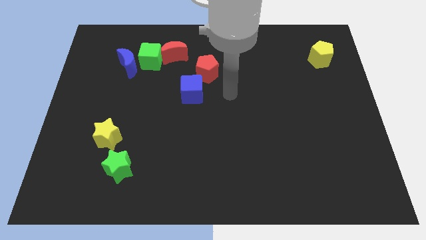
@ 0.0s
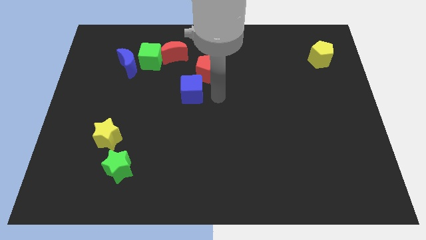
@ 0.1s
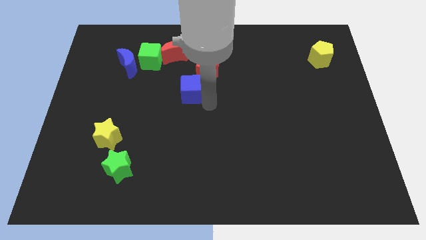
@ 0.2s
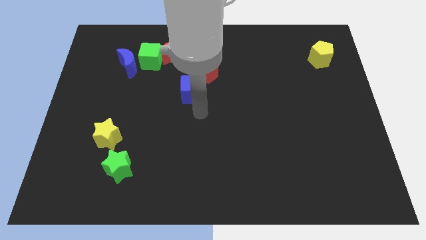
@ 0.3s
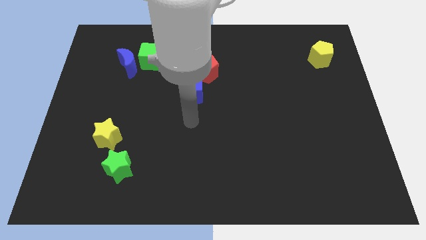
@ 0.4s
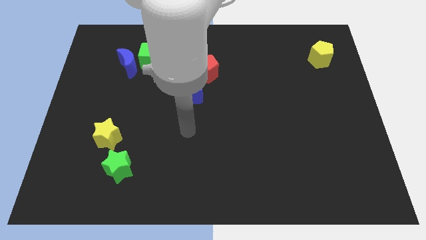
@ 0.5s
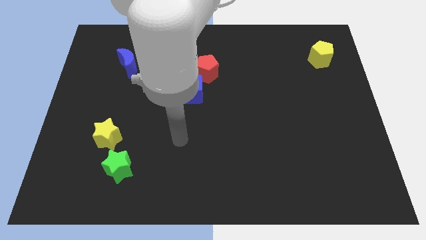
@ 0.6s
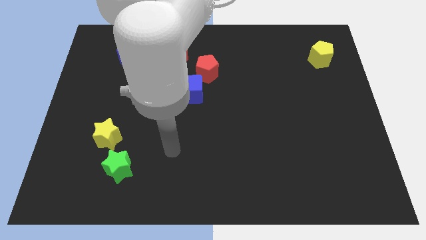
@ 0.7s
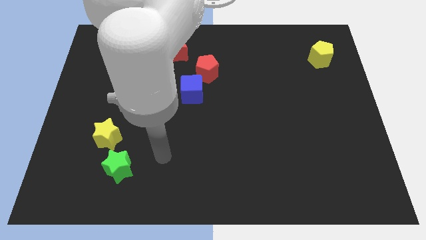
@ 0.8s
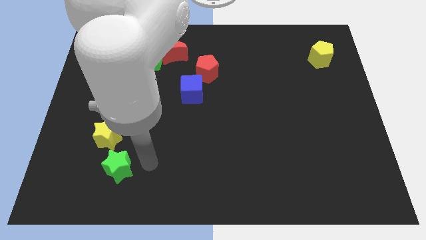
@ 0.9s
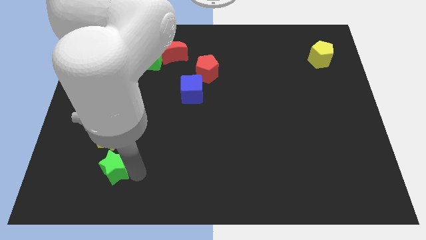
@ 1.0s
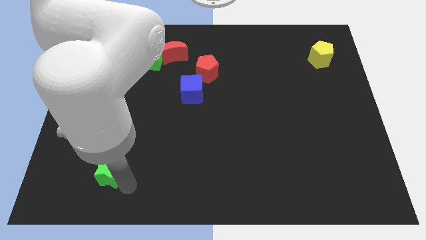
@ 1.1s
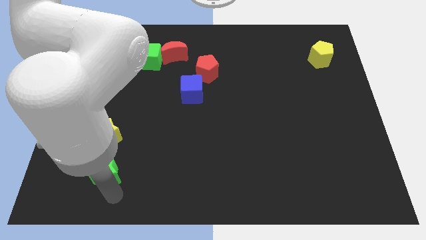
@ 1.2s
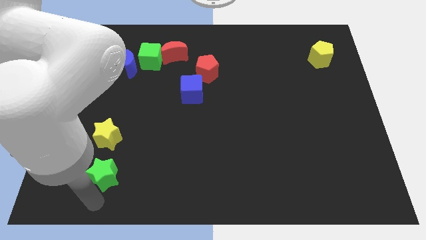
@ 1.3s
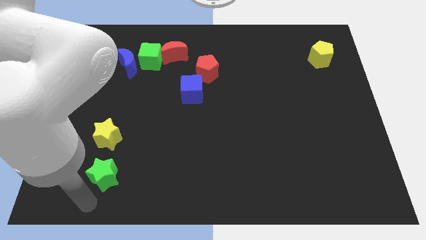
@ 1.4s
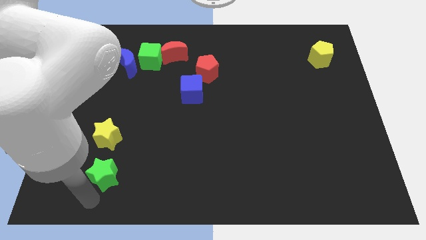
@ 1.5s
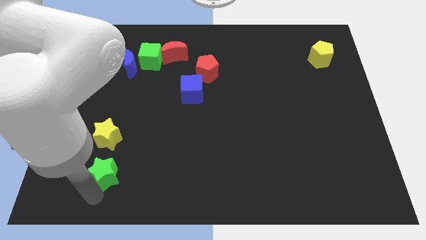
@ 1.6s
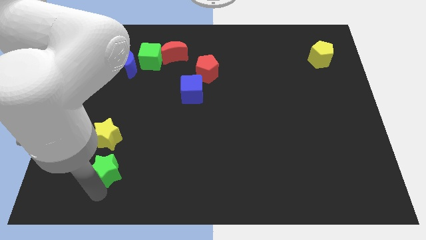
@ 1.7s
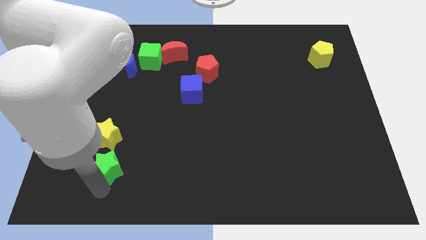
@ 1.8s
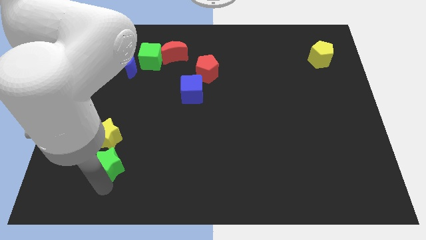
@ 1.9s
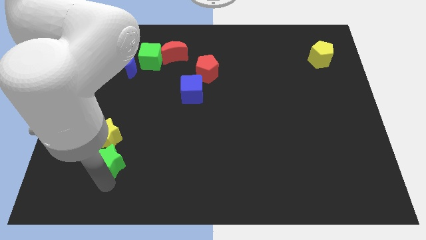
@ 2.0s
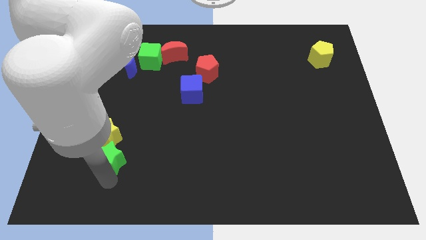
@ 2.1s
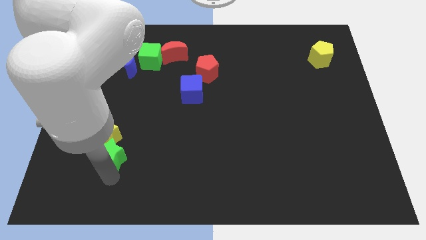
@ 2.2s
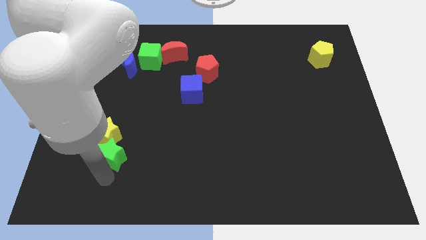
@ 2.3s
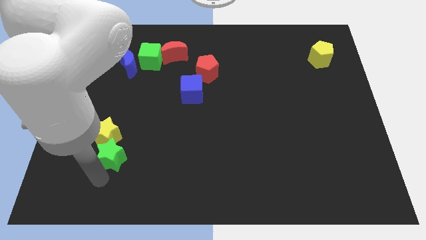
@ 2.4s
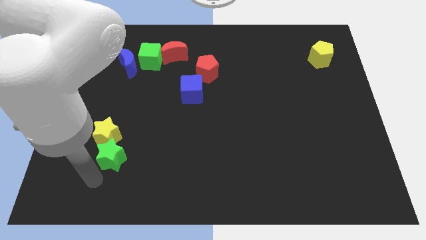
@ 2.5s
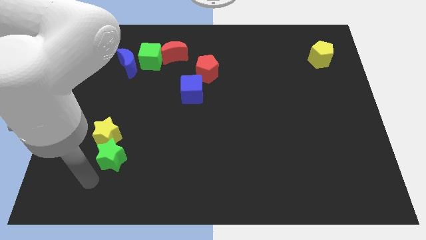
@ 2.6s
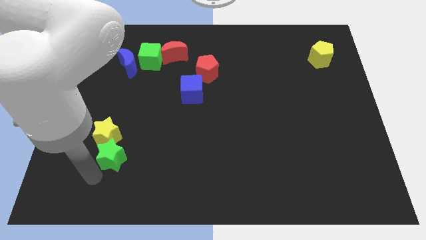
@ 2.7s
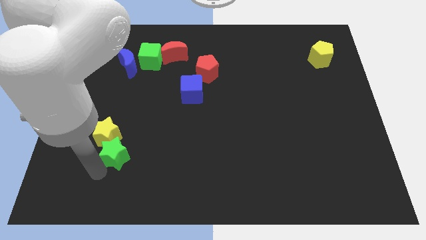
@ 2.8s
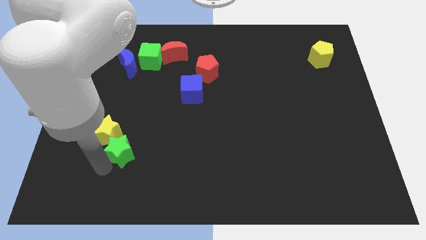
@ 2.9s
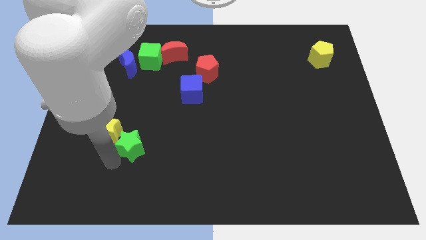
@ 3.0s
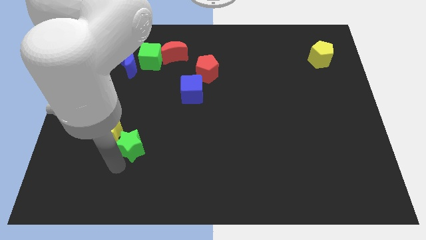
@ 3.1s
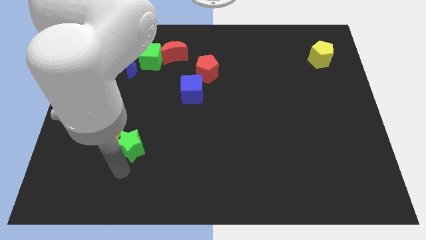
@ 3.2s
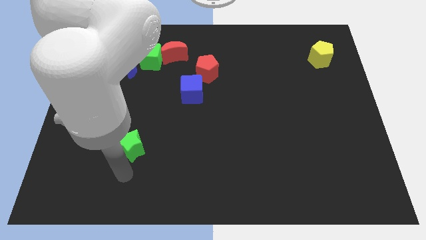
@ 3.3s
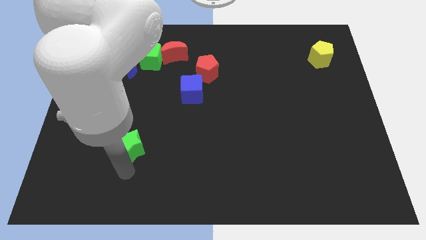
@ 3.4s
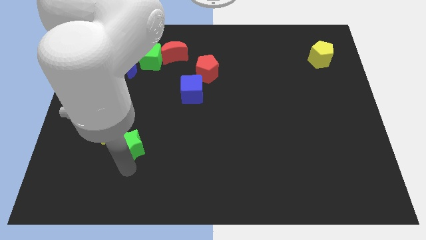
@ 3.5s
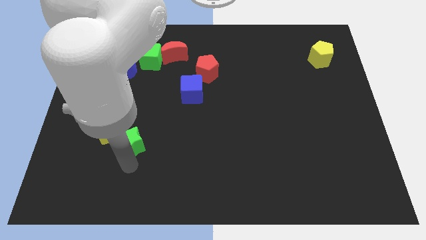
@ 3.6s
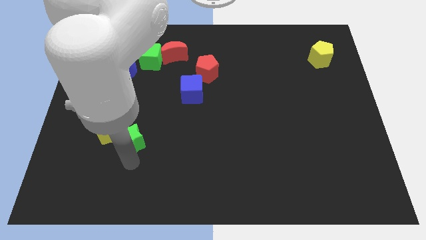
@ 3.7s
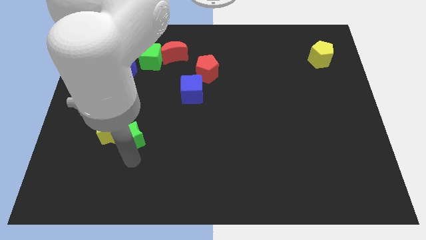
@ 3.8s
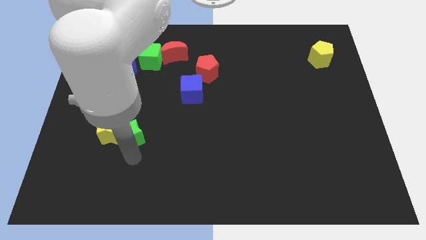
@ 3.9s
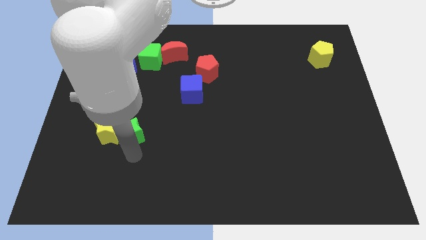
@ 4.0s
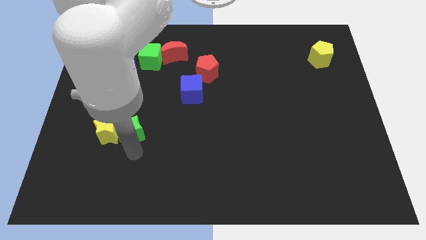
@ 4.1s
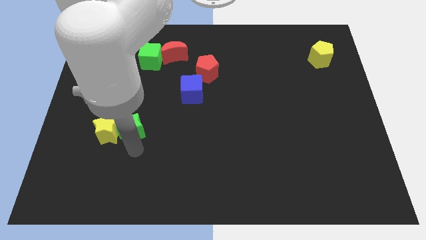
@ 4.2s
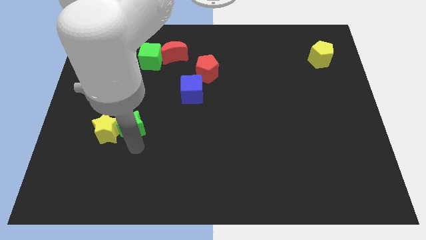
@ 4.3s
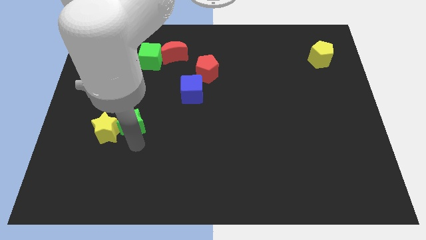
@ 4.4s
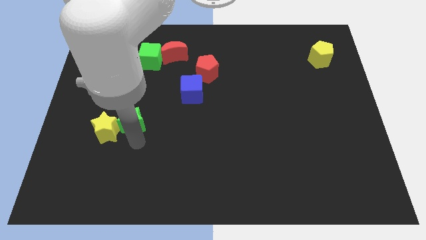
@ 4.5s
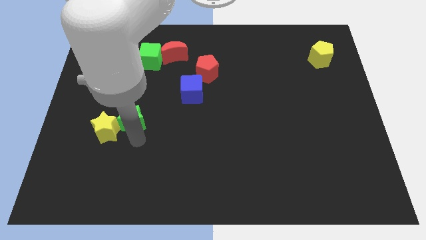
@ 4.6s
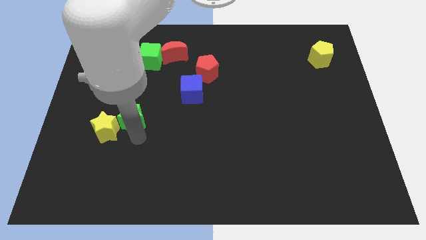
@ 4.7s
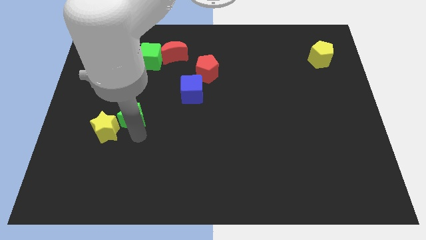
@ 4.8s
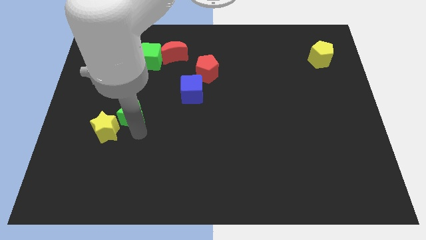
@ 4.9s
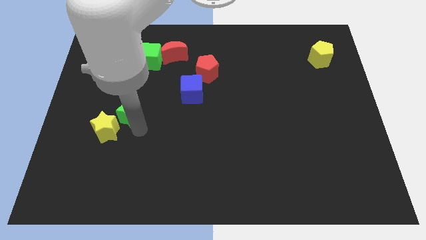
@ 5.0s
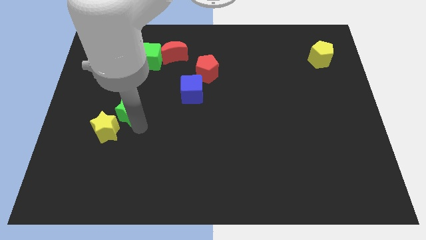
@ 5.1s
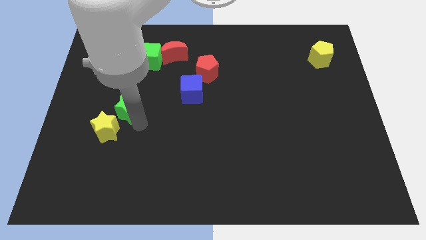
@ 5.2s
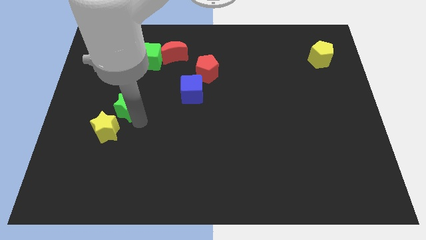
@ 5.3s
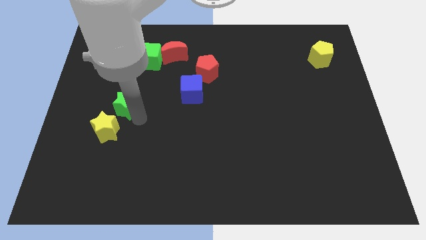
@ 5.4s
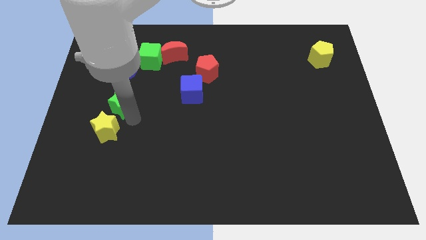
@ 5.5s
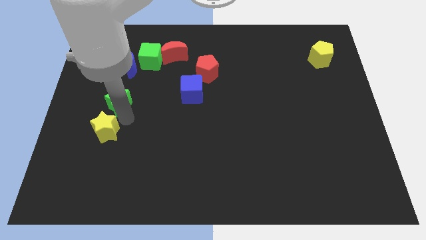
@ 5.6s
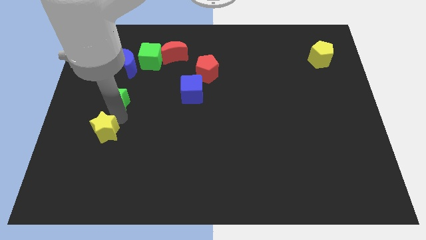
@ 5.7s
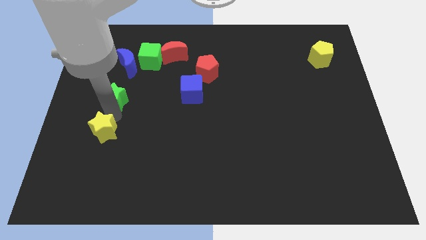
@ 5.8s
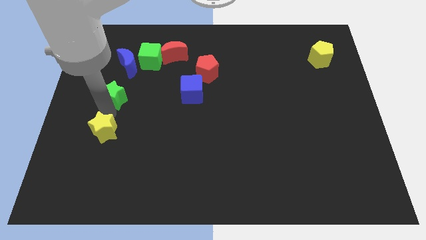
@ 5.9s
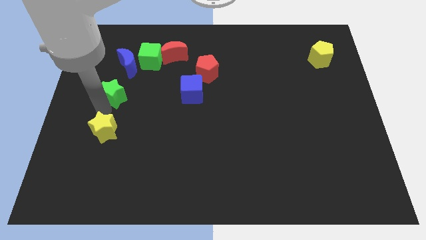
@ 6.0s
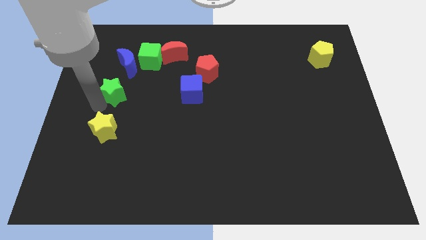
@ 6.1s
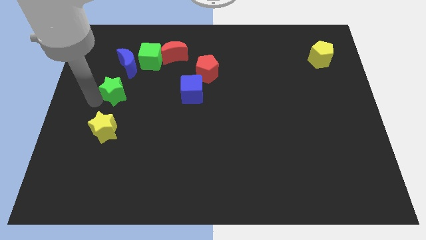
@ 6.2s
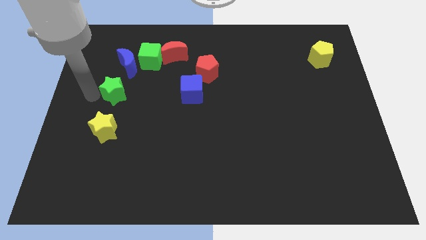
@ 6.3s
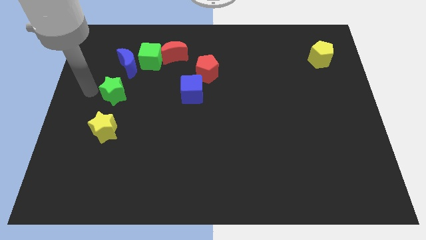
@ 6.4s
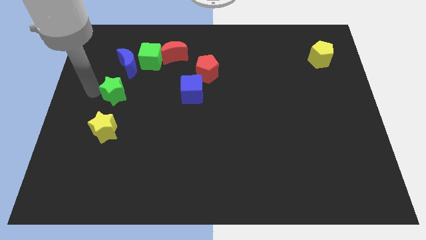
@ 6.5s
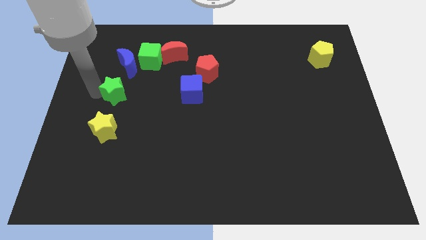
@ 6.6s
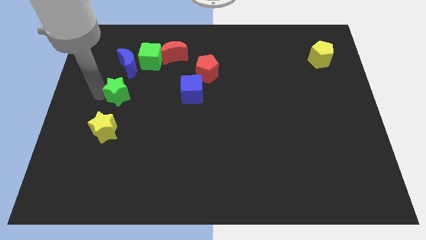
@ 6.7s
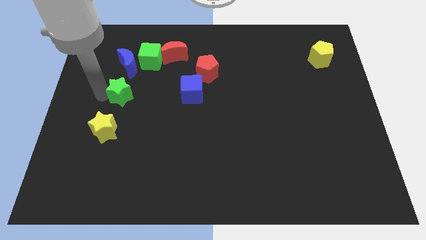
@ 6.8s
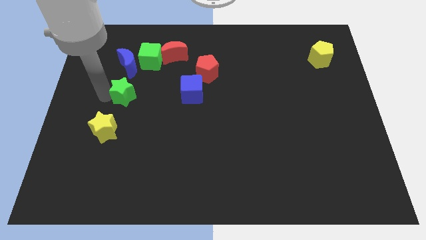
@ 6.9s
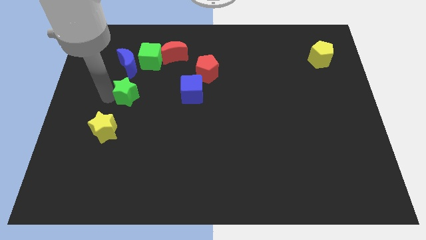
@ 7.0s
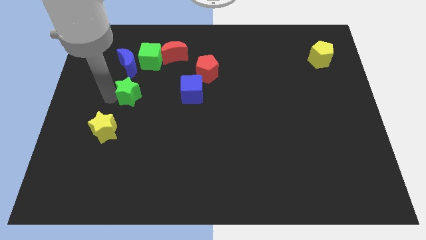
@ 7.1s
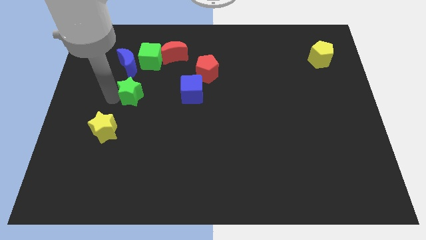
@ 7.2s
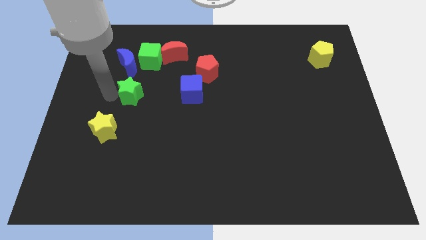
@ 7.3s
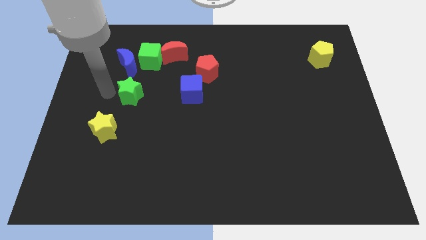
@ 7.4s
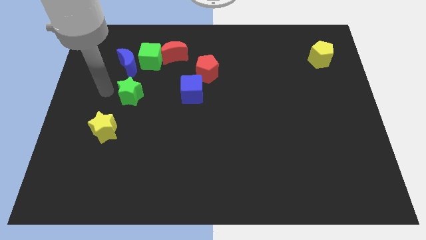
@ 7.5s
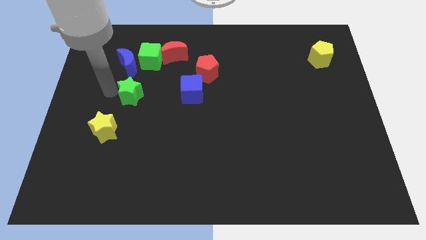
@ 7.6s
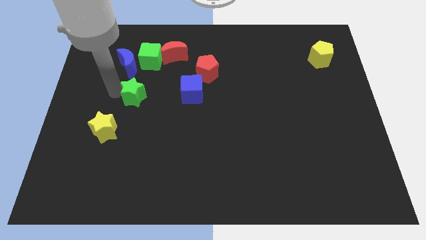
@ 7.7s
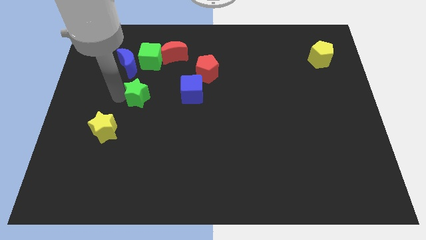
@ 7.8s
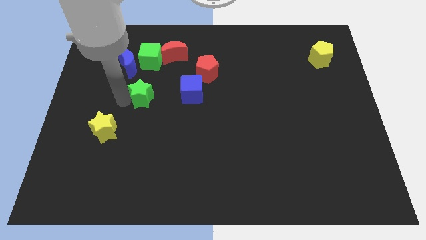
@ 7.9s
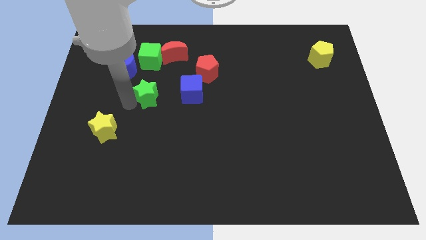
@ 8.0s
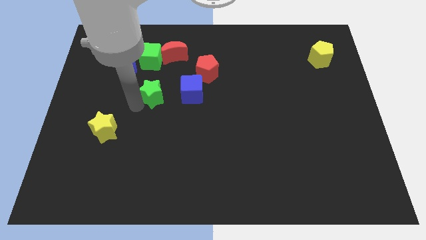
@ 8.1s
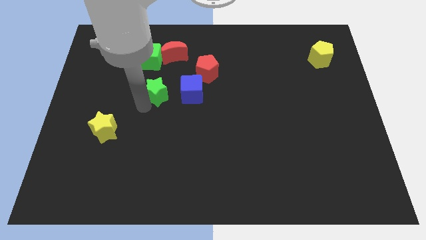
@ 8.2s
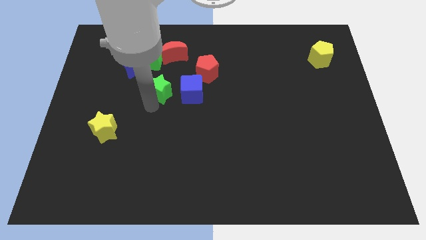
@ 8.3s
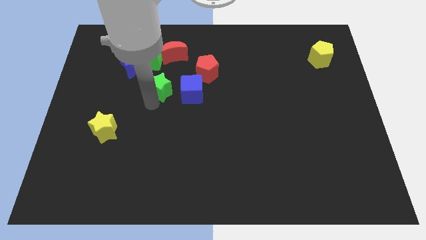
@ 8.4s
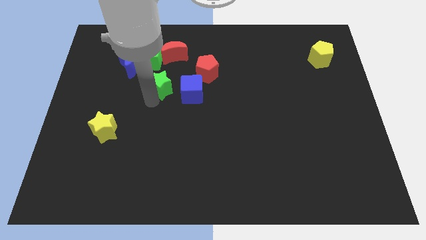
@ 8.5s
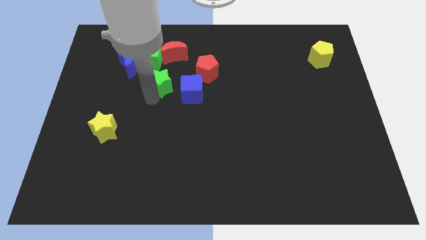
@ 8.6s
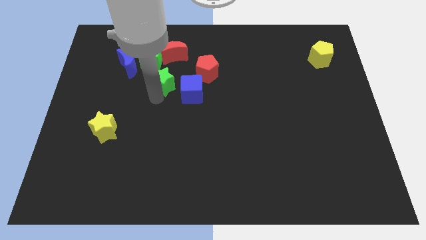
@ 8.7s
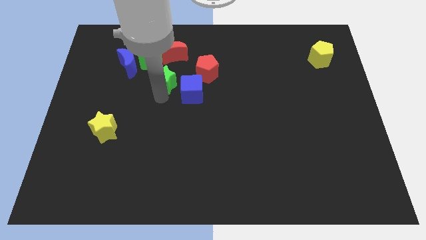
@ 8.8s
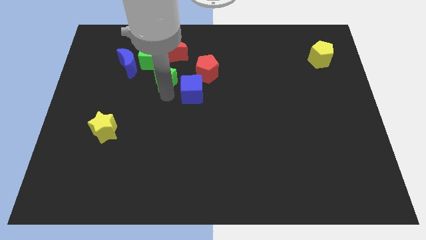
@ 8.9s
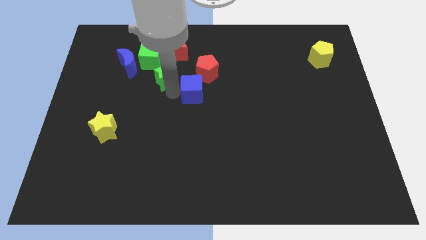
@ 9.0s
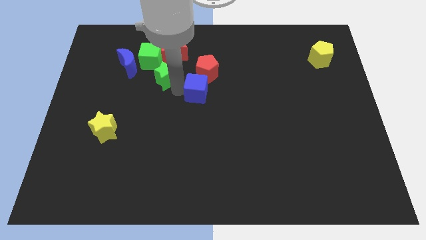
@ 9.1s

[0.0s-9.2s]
slide the green star to the bottom left side of the red moon
